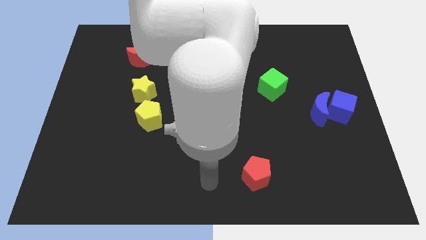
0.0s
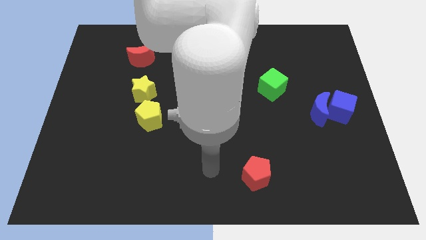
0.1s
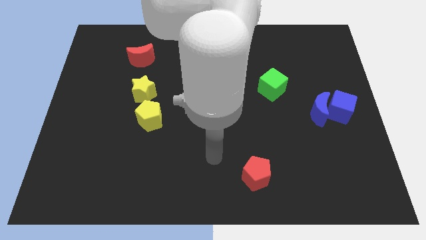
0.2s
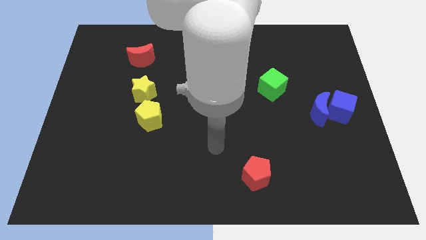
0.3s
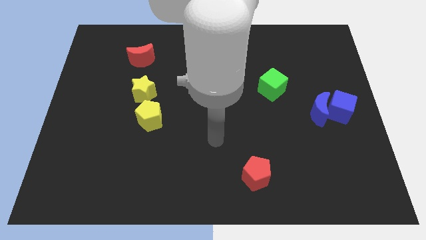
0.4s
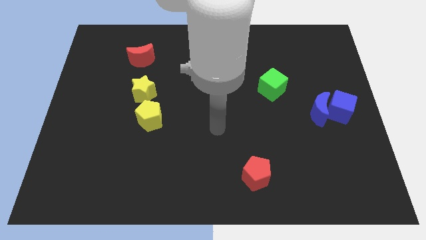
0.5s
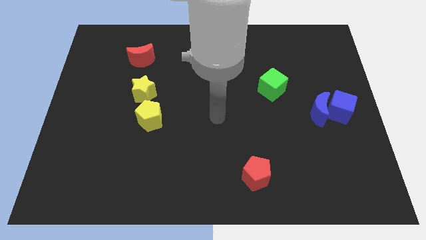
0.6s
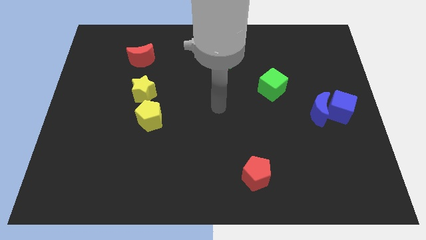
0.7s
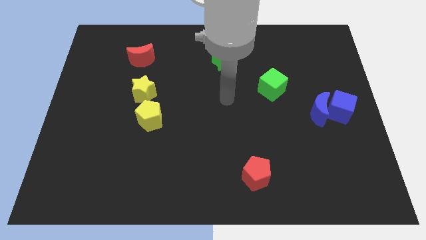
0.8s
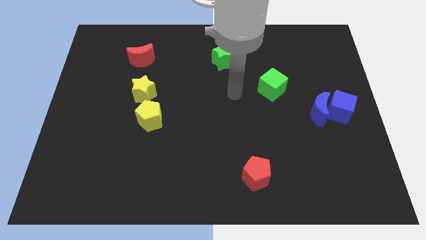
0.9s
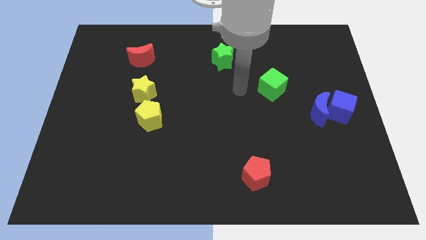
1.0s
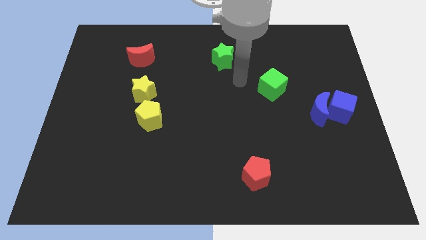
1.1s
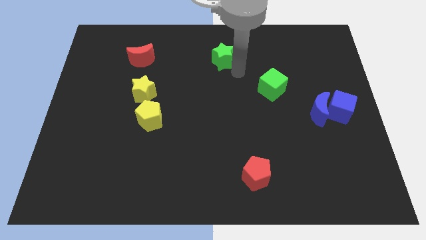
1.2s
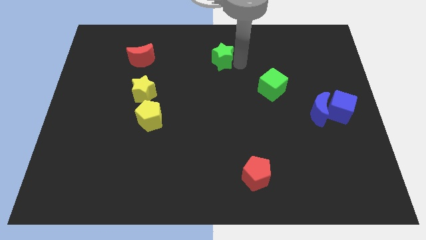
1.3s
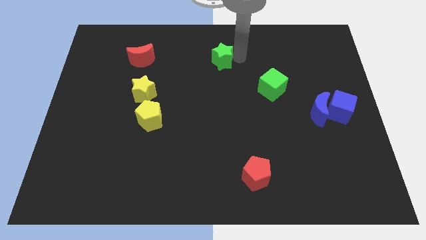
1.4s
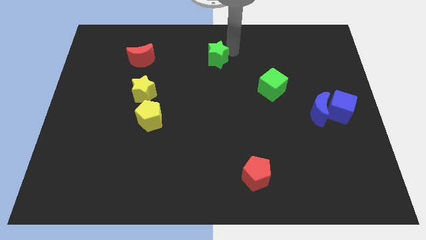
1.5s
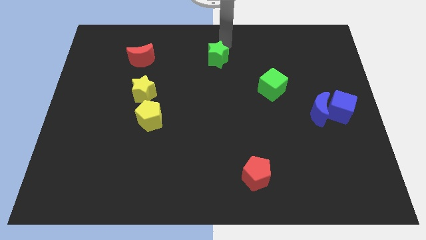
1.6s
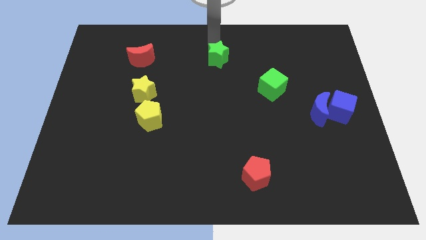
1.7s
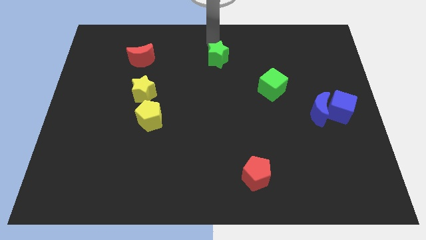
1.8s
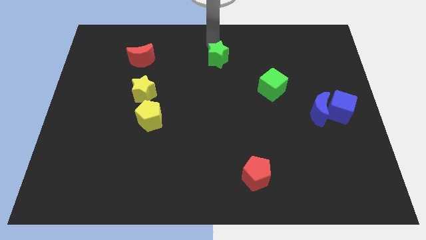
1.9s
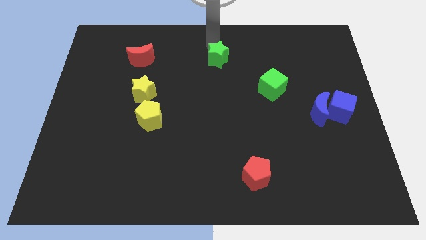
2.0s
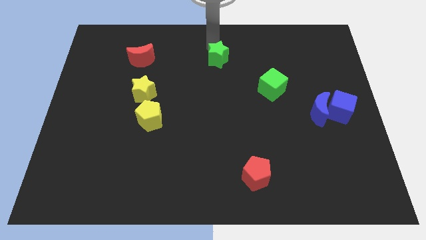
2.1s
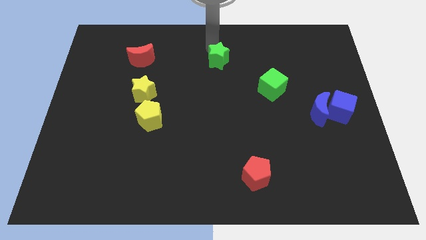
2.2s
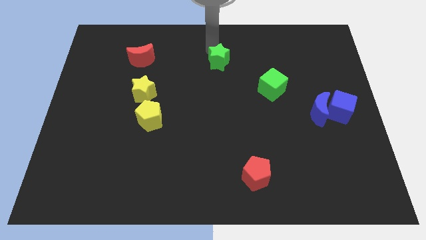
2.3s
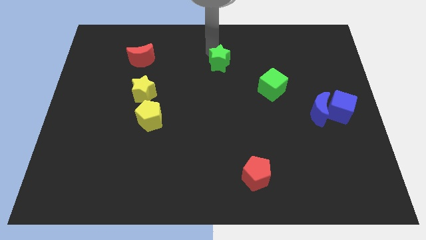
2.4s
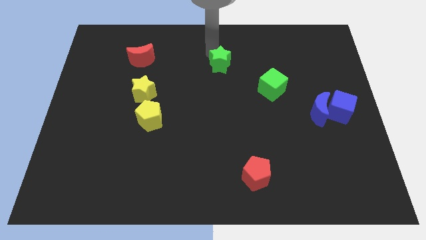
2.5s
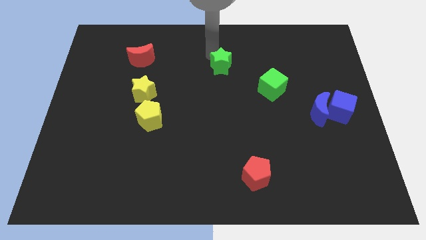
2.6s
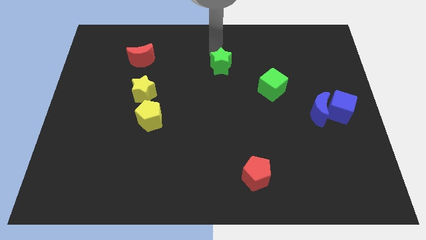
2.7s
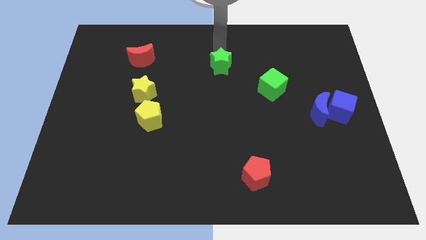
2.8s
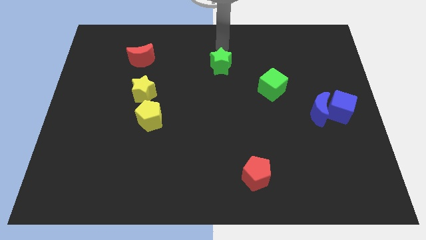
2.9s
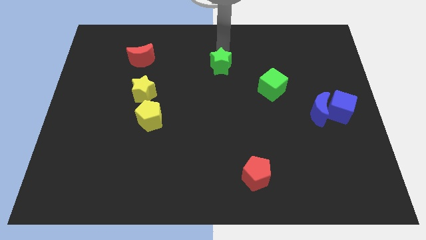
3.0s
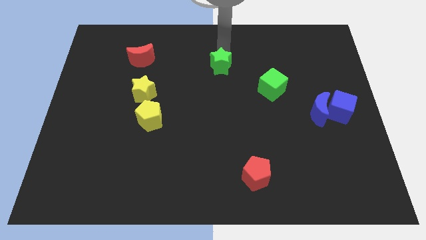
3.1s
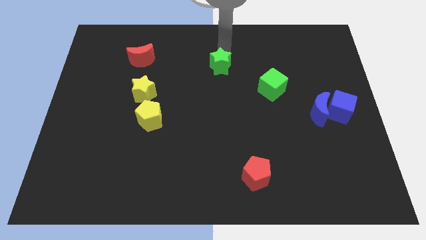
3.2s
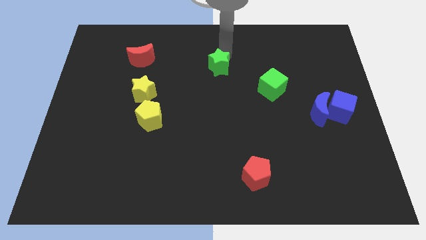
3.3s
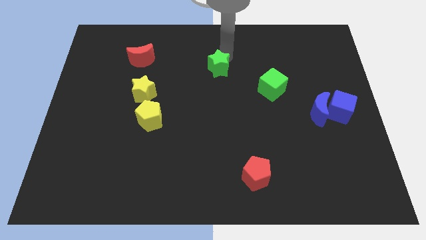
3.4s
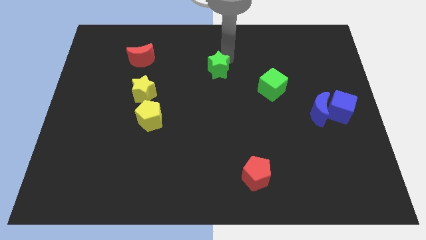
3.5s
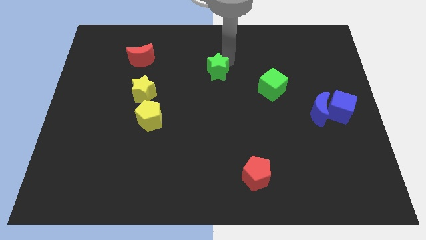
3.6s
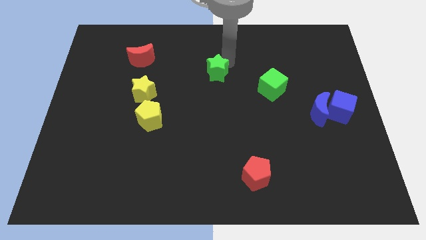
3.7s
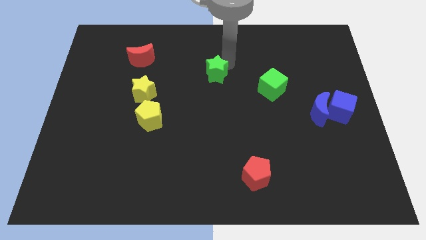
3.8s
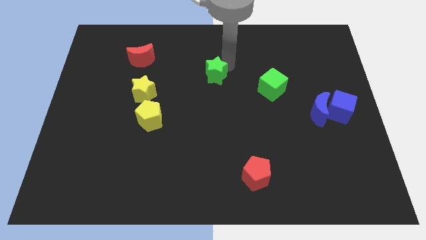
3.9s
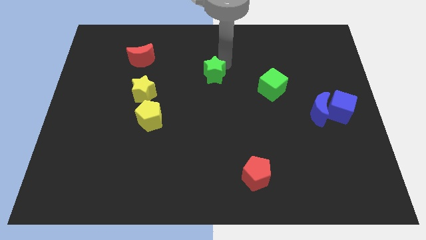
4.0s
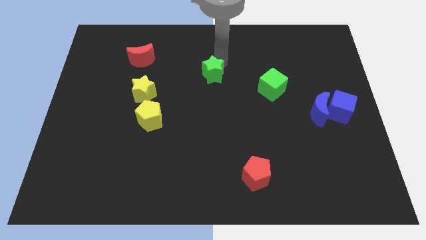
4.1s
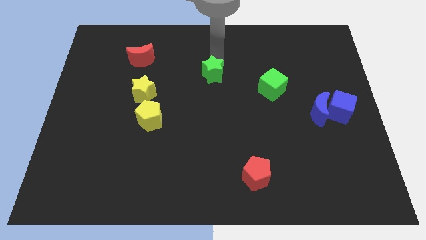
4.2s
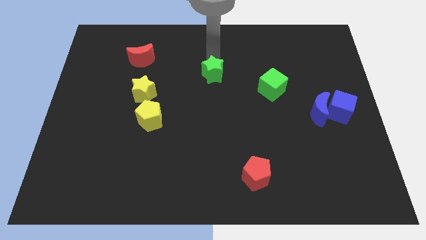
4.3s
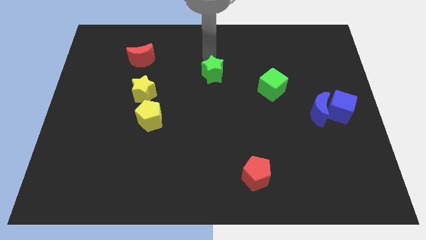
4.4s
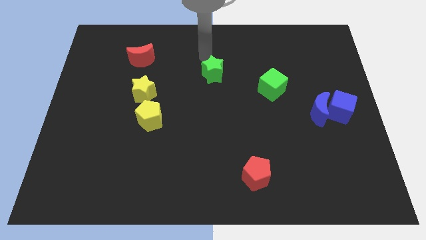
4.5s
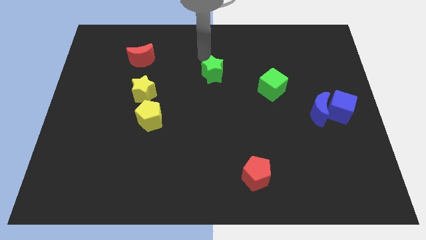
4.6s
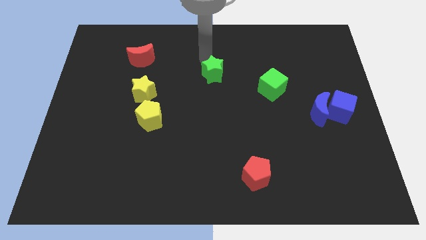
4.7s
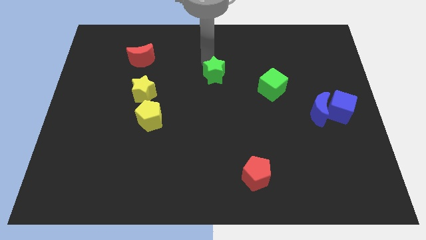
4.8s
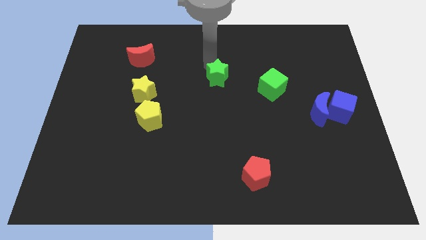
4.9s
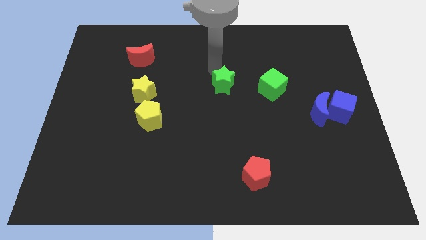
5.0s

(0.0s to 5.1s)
slightly move the green star down

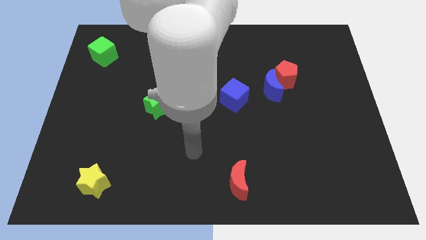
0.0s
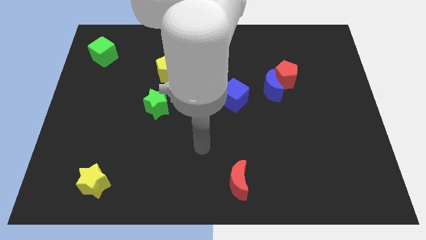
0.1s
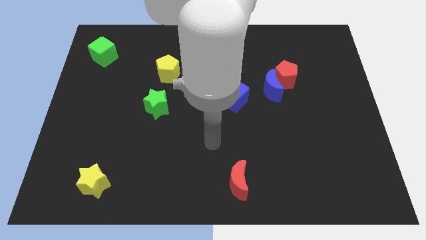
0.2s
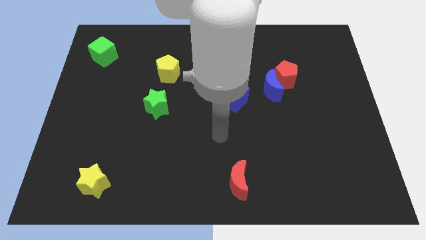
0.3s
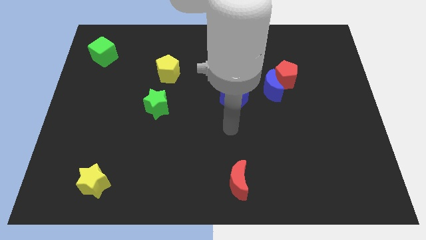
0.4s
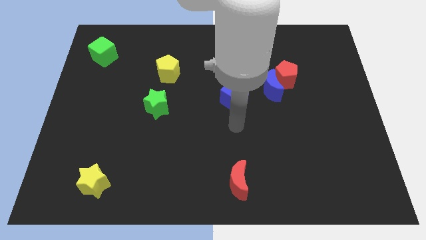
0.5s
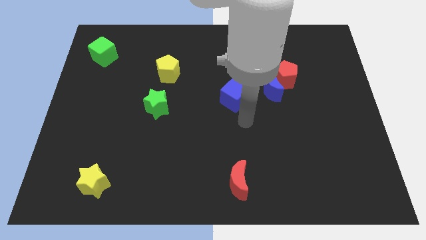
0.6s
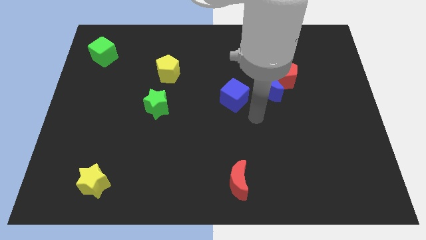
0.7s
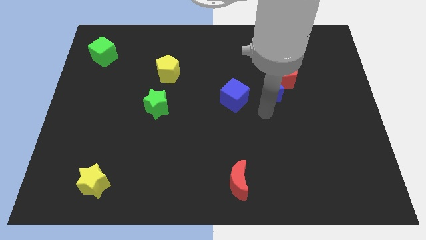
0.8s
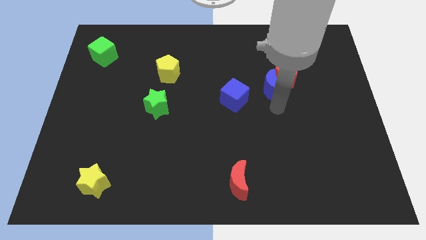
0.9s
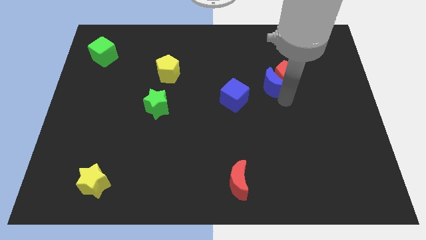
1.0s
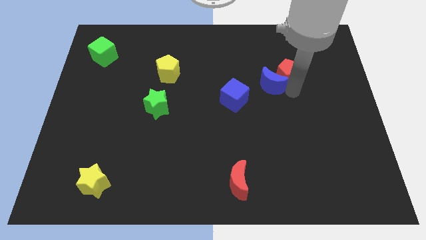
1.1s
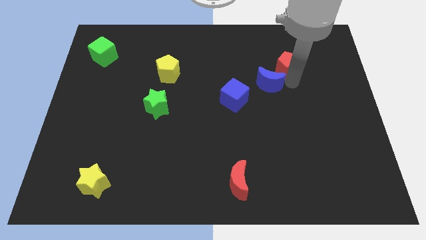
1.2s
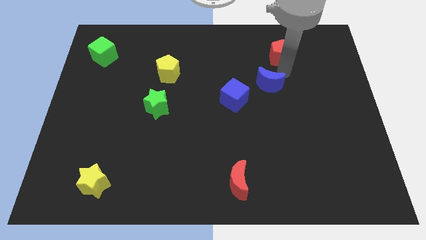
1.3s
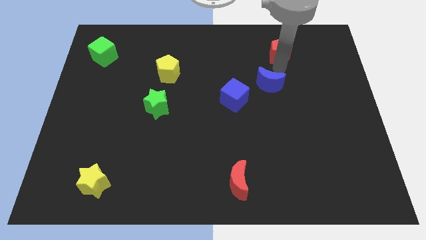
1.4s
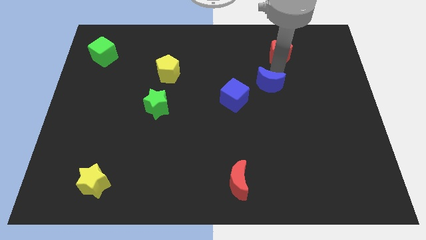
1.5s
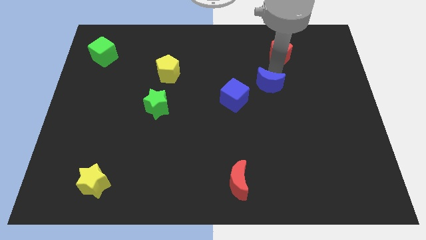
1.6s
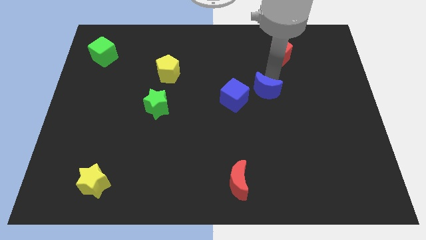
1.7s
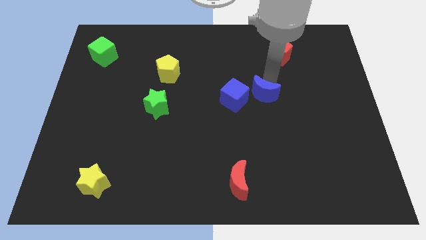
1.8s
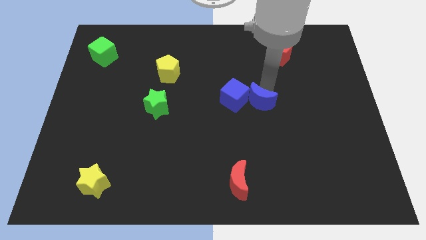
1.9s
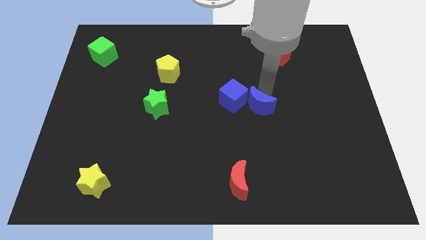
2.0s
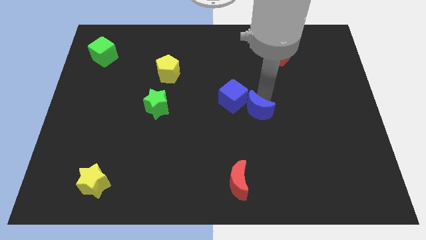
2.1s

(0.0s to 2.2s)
slightly push the blue moon down and left

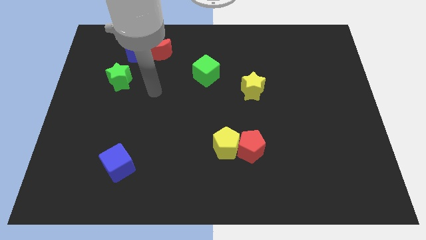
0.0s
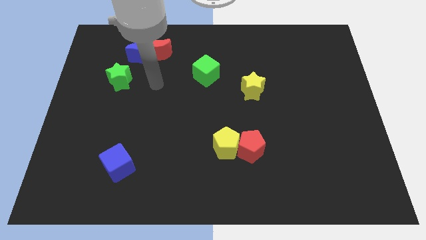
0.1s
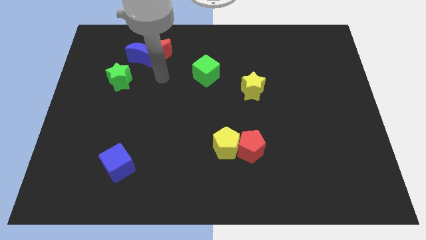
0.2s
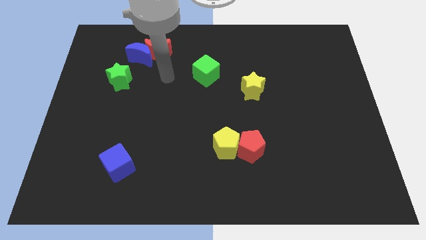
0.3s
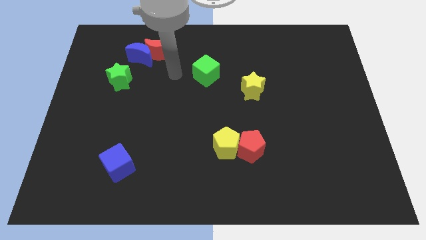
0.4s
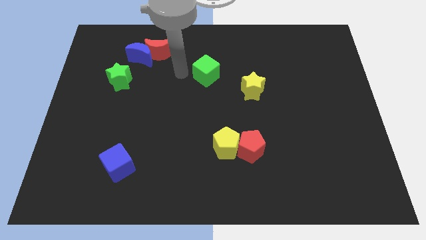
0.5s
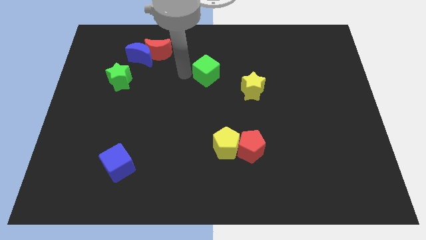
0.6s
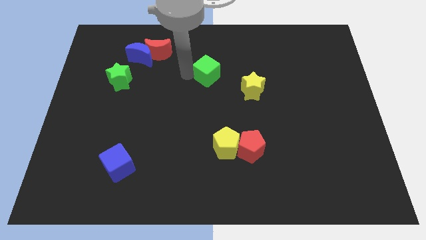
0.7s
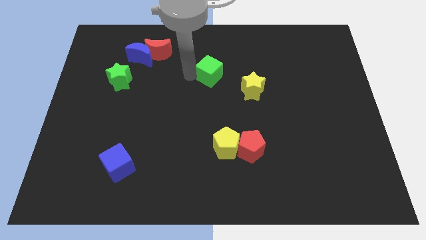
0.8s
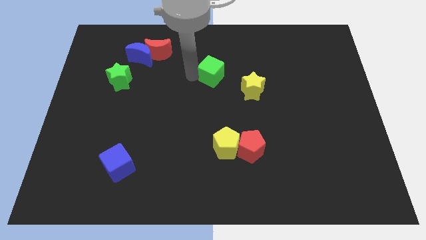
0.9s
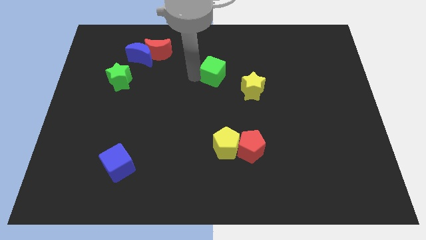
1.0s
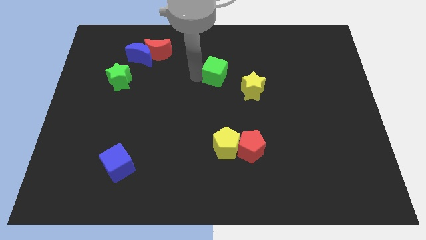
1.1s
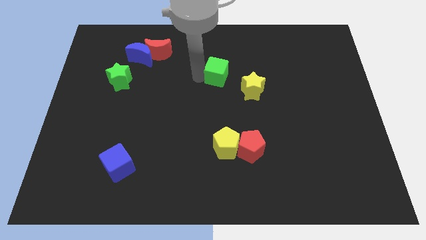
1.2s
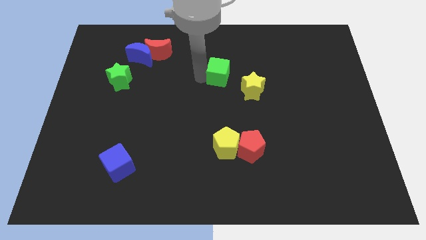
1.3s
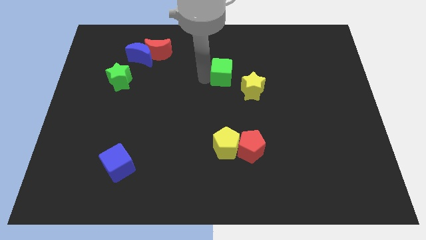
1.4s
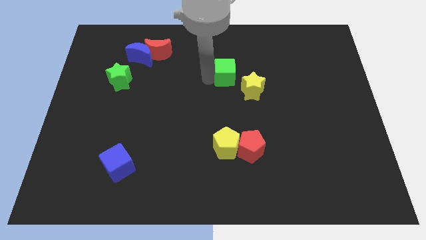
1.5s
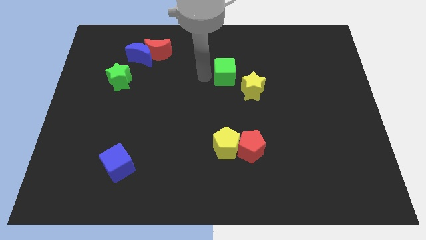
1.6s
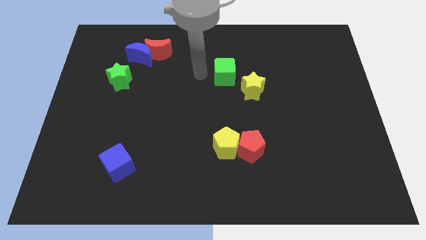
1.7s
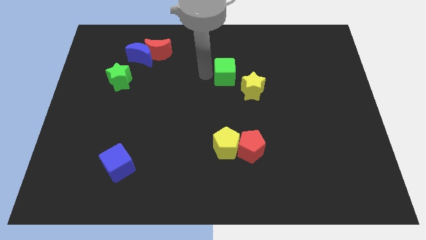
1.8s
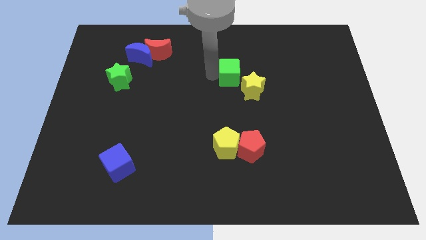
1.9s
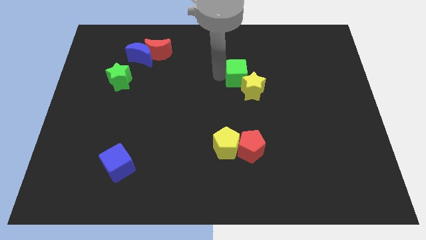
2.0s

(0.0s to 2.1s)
move the green cube to the right a bit
